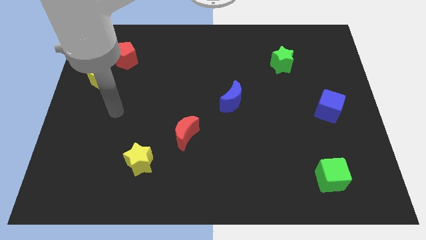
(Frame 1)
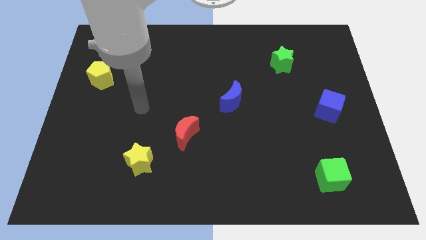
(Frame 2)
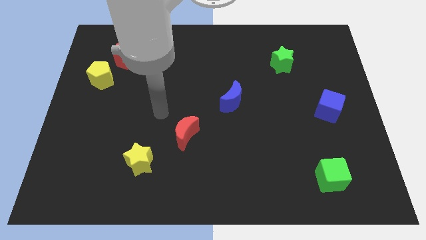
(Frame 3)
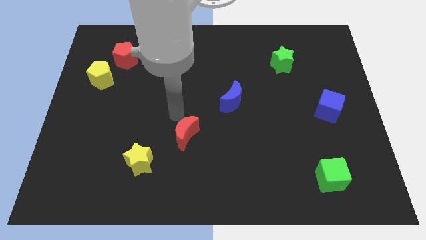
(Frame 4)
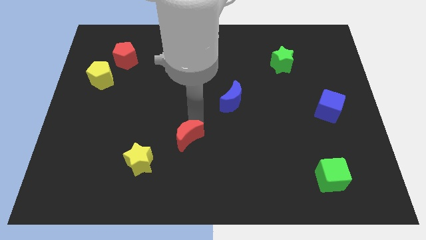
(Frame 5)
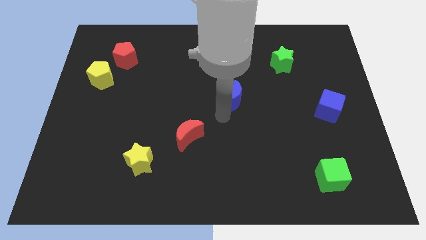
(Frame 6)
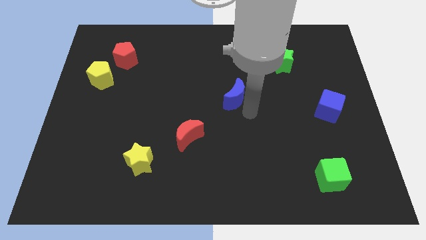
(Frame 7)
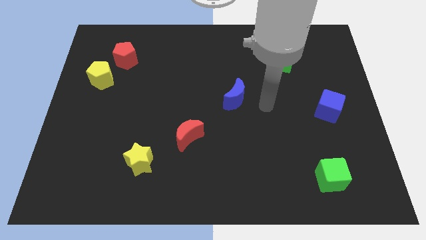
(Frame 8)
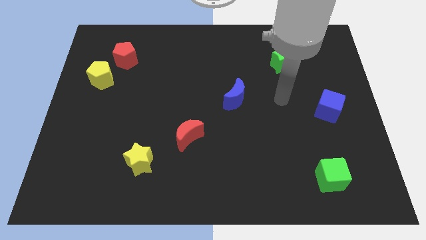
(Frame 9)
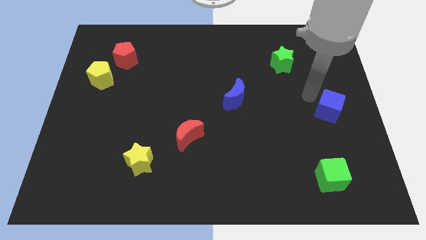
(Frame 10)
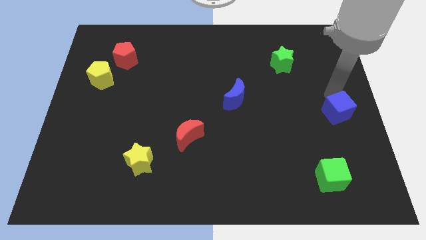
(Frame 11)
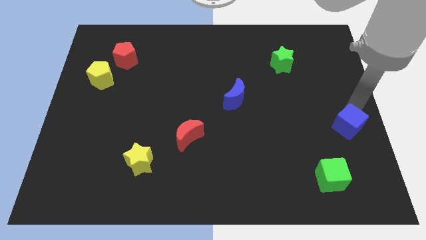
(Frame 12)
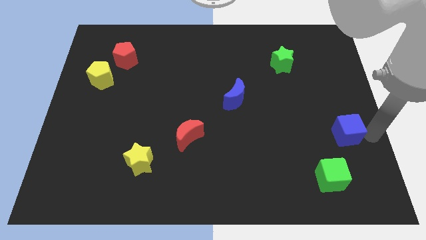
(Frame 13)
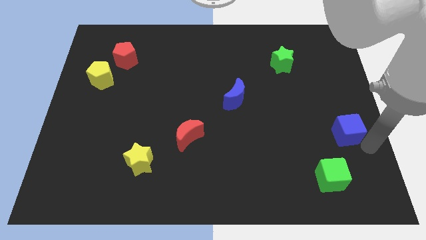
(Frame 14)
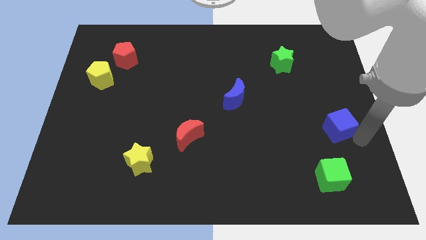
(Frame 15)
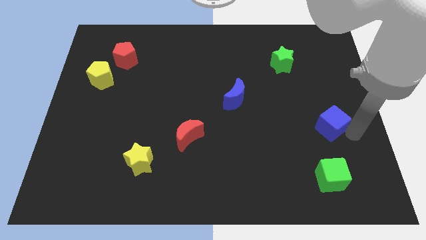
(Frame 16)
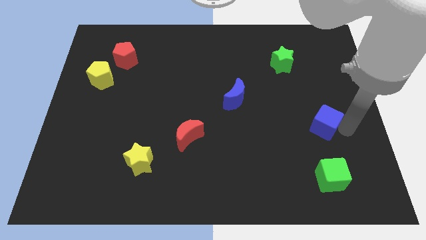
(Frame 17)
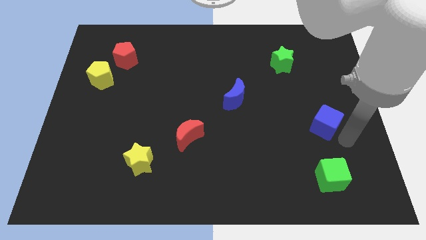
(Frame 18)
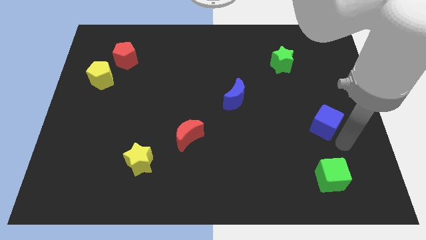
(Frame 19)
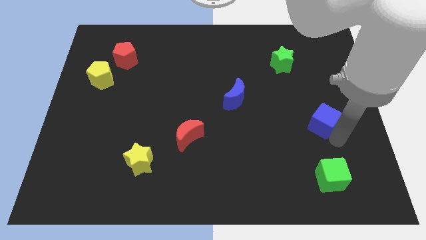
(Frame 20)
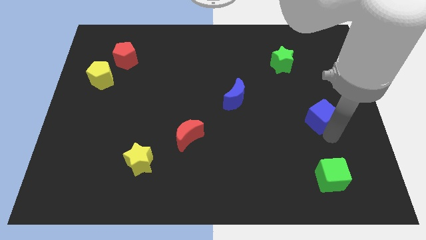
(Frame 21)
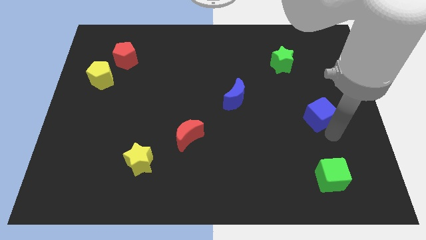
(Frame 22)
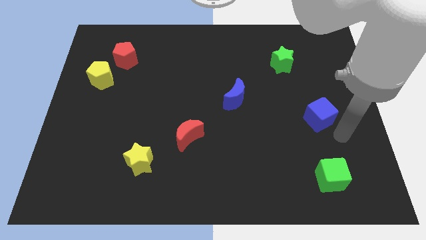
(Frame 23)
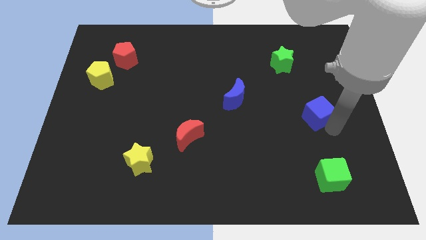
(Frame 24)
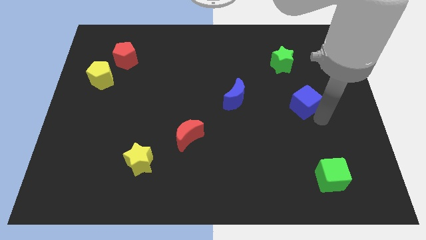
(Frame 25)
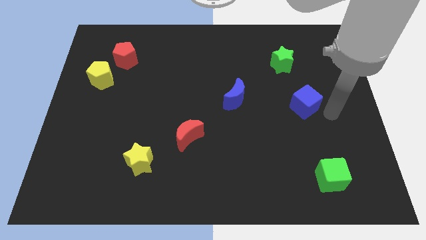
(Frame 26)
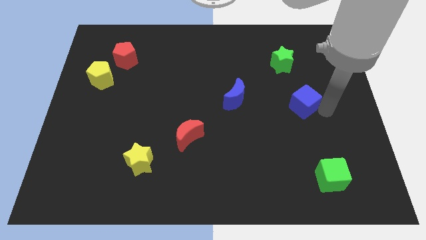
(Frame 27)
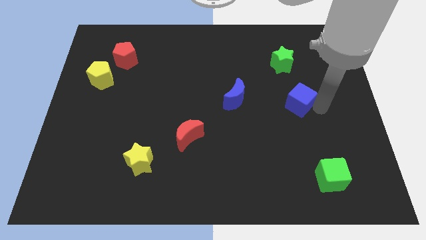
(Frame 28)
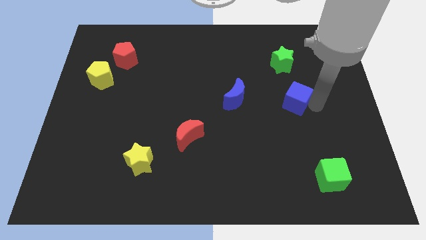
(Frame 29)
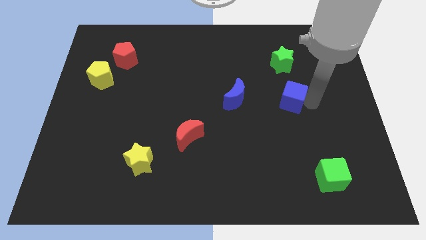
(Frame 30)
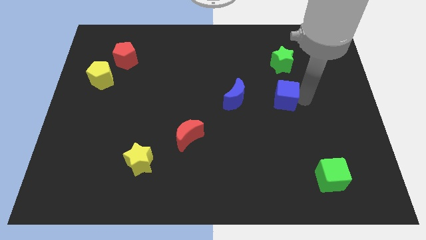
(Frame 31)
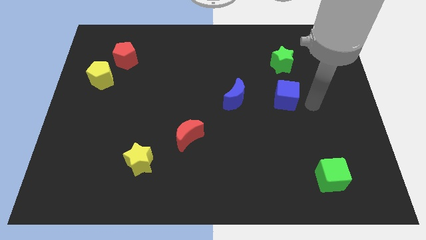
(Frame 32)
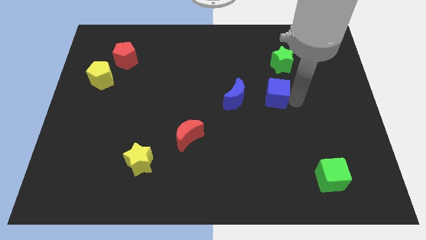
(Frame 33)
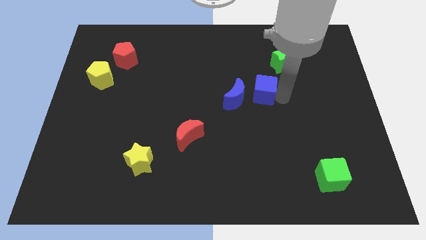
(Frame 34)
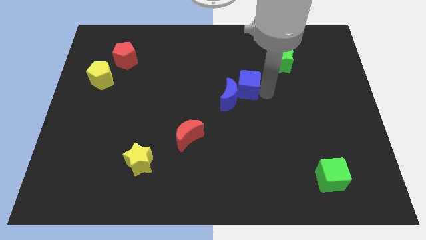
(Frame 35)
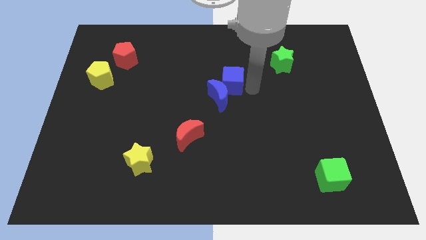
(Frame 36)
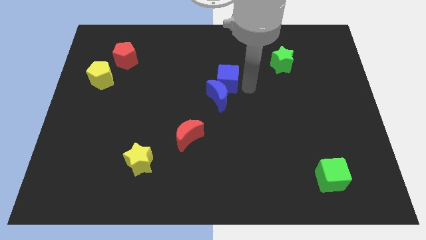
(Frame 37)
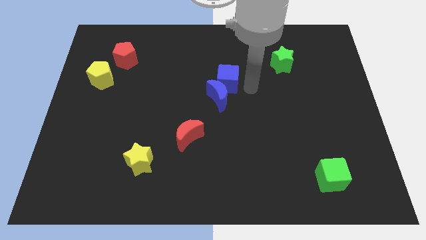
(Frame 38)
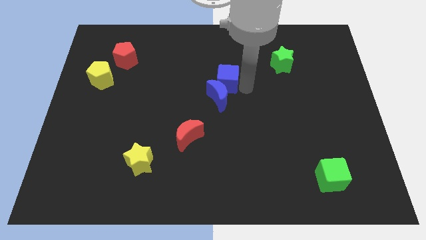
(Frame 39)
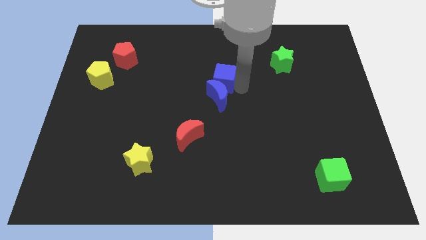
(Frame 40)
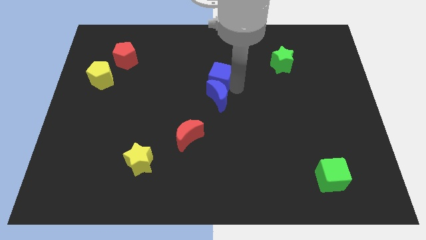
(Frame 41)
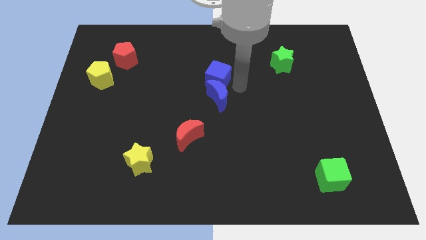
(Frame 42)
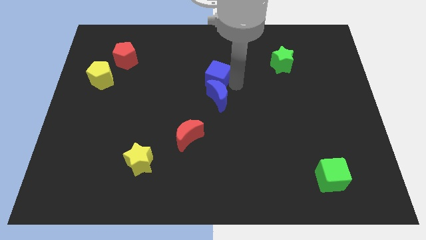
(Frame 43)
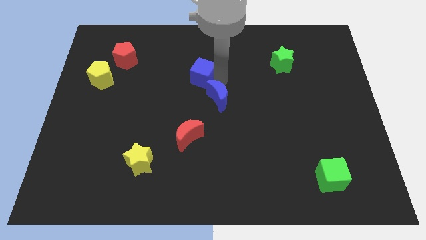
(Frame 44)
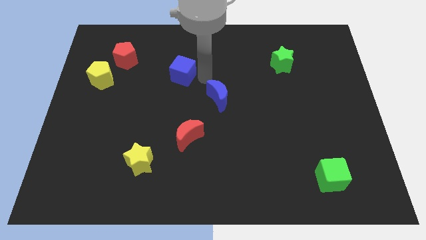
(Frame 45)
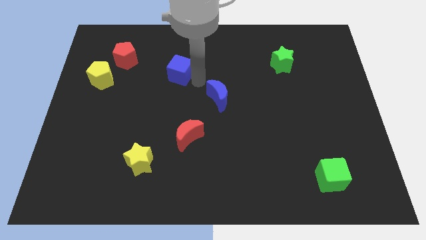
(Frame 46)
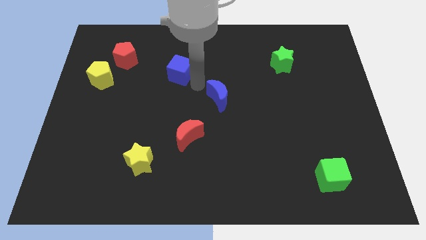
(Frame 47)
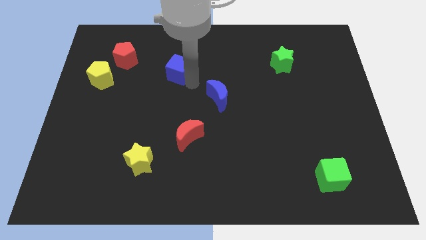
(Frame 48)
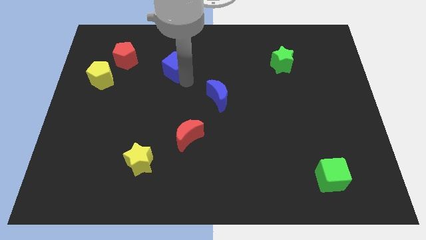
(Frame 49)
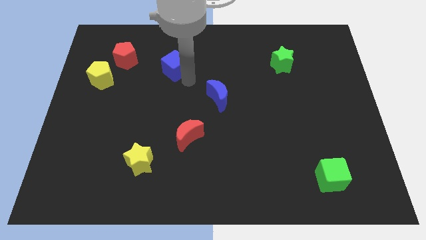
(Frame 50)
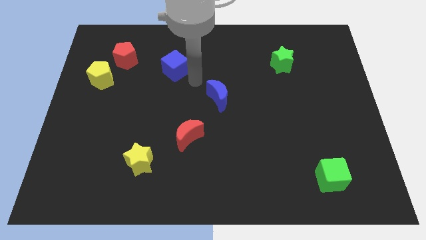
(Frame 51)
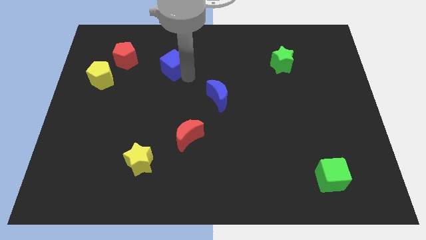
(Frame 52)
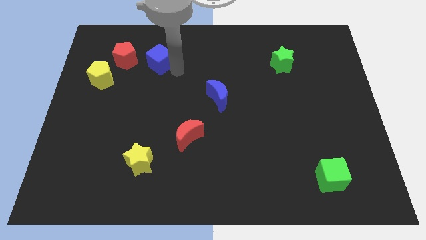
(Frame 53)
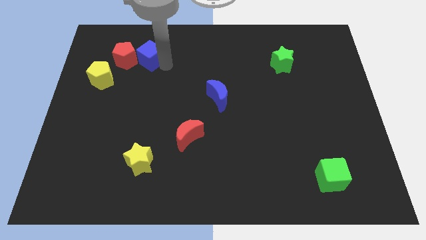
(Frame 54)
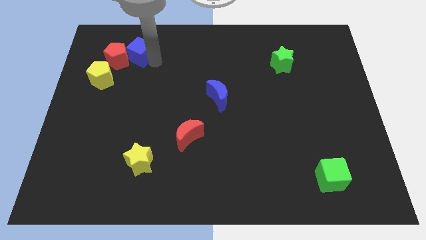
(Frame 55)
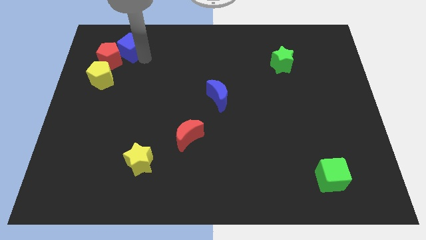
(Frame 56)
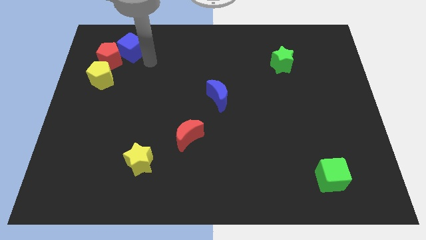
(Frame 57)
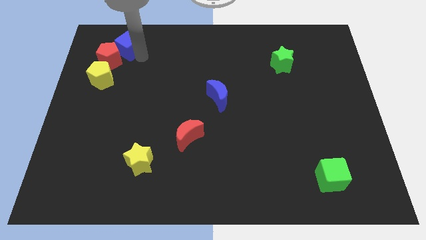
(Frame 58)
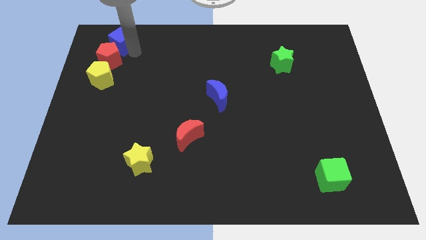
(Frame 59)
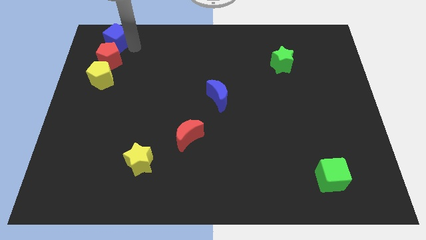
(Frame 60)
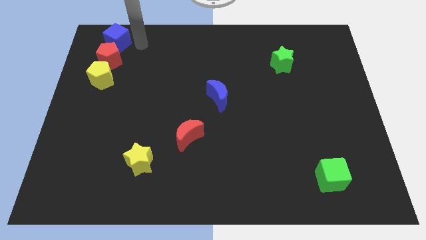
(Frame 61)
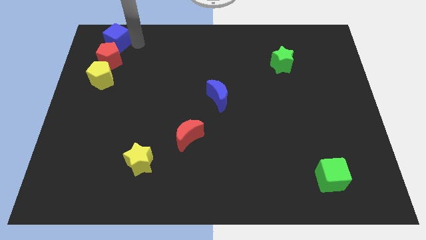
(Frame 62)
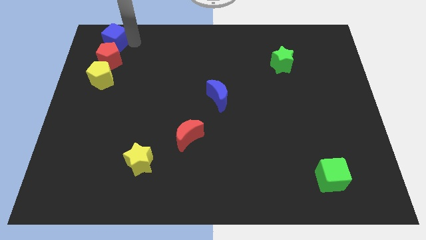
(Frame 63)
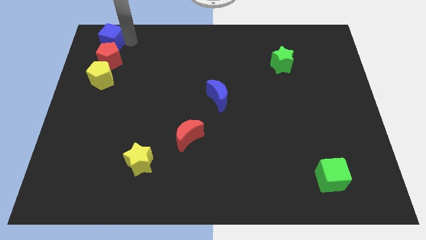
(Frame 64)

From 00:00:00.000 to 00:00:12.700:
push the blue cube to the top left of the board

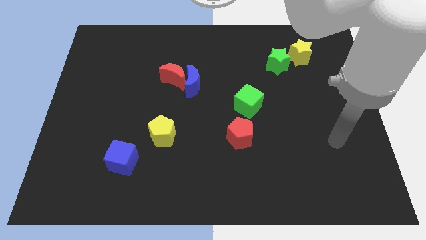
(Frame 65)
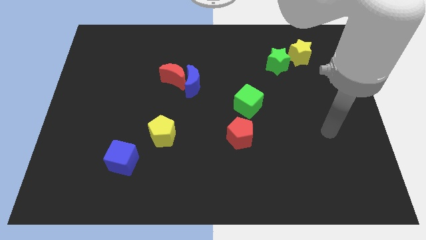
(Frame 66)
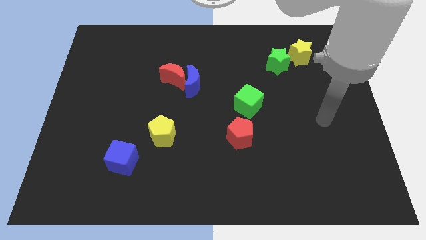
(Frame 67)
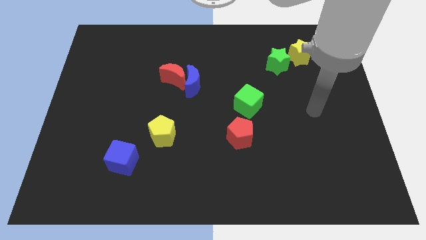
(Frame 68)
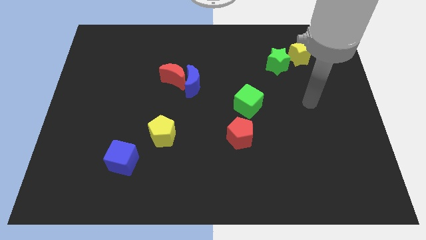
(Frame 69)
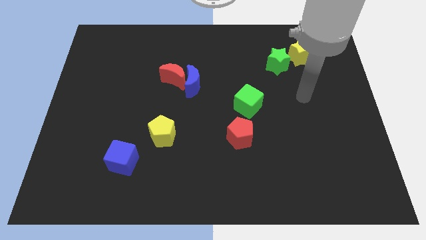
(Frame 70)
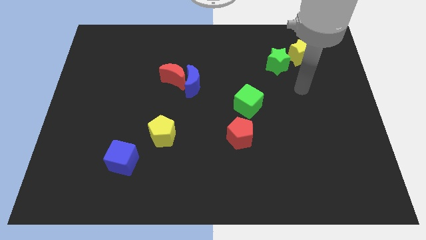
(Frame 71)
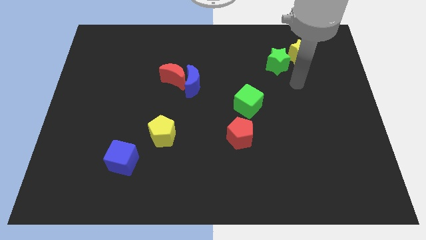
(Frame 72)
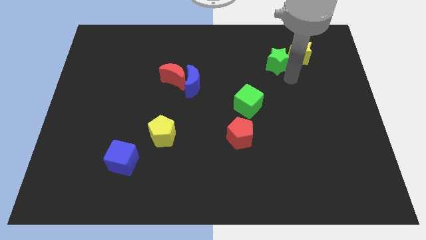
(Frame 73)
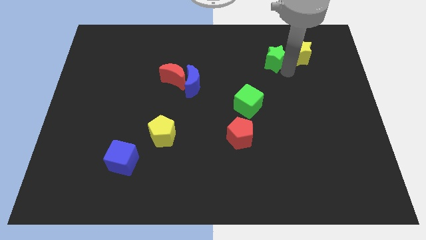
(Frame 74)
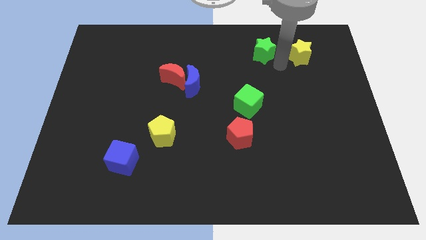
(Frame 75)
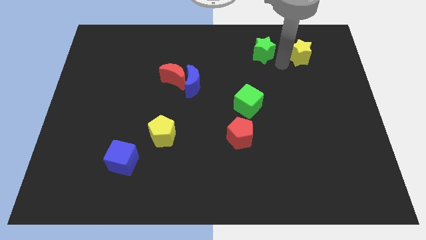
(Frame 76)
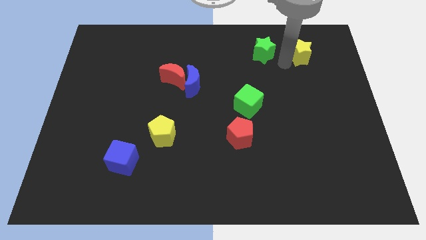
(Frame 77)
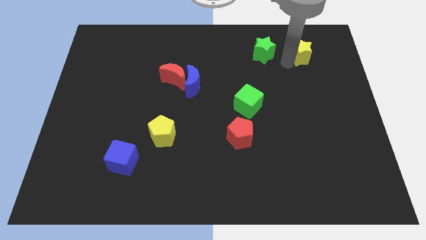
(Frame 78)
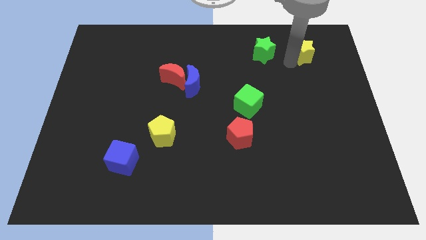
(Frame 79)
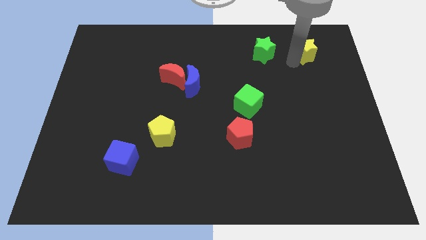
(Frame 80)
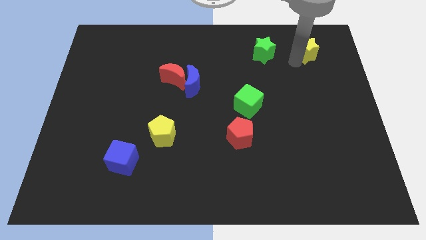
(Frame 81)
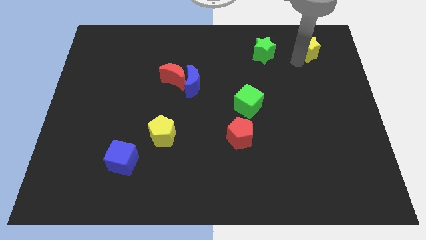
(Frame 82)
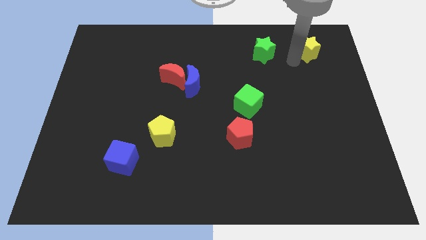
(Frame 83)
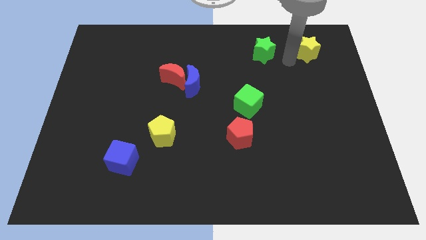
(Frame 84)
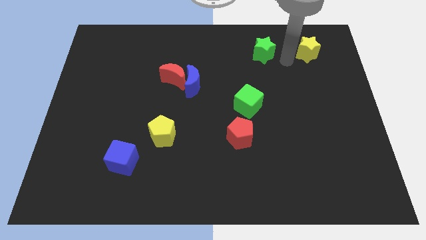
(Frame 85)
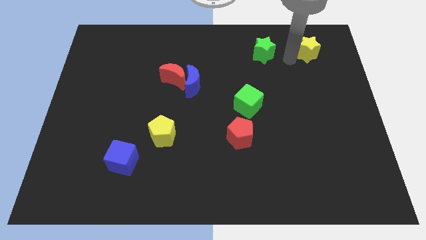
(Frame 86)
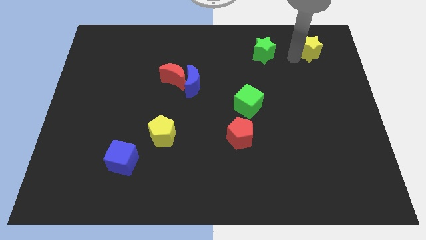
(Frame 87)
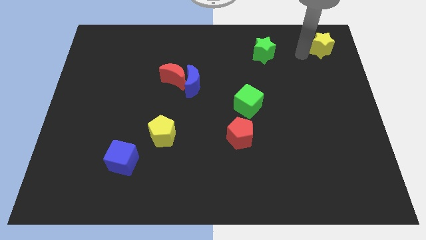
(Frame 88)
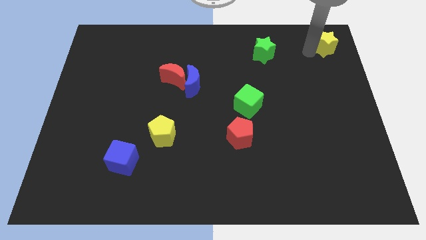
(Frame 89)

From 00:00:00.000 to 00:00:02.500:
move the yellow star to the top right corner
